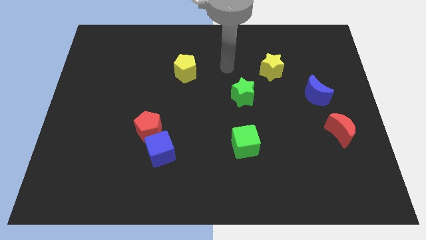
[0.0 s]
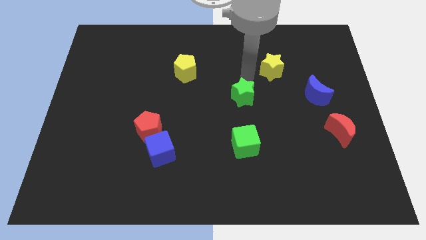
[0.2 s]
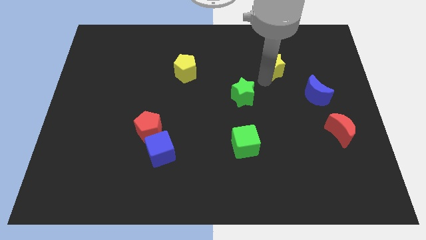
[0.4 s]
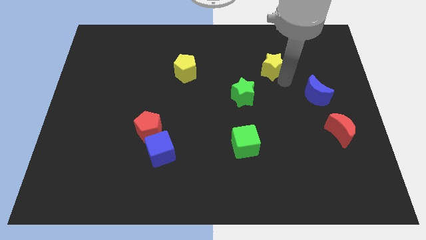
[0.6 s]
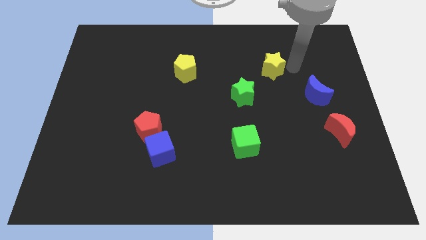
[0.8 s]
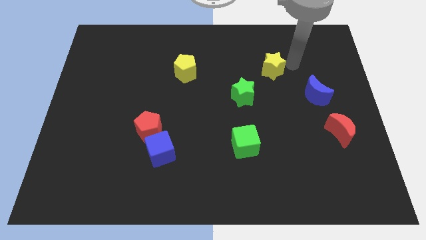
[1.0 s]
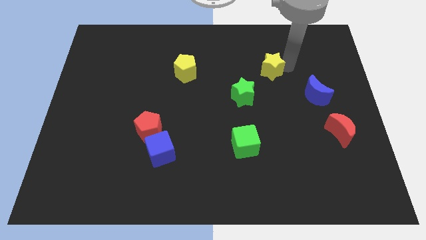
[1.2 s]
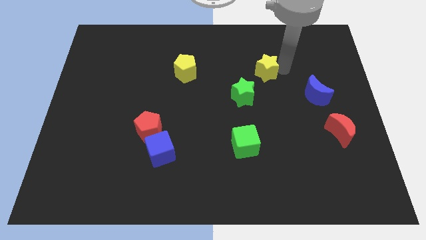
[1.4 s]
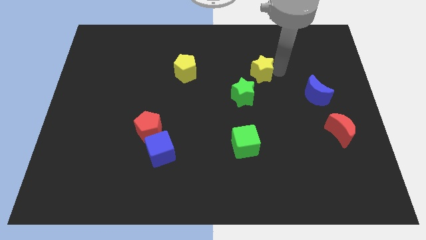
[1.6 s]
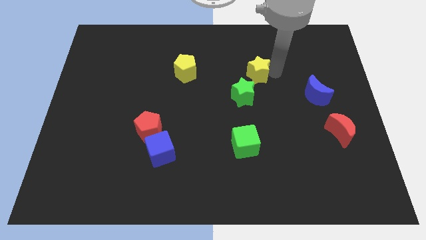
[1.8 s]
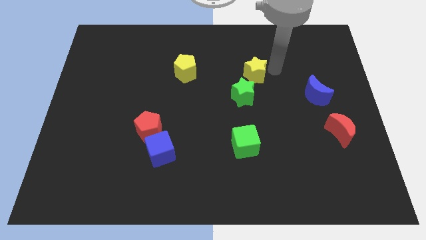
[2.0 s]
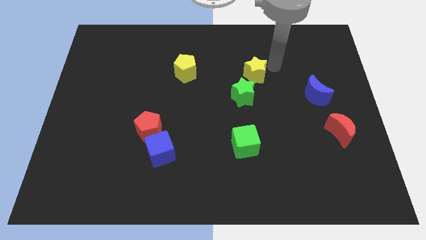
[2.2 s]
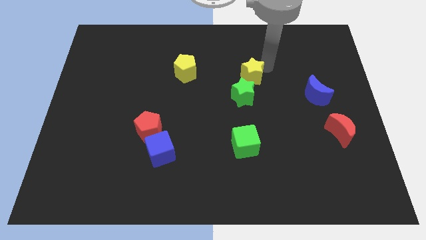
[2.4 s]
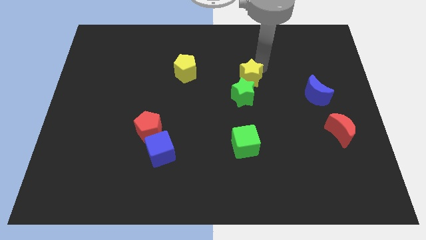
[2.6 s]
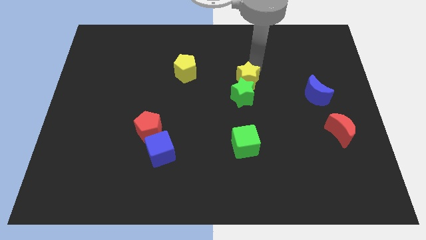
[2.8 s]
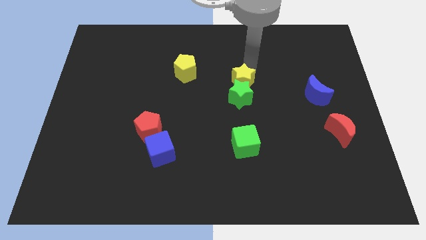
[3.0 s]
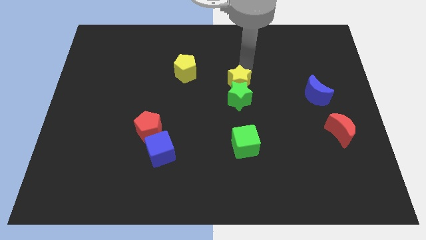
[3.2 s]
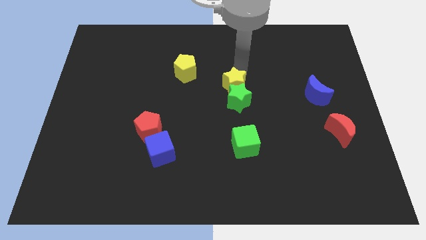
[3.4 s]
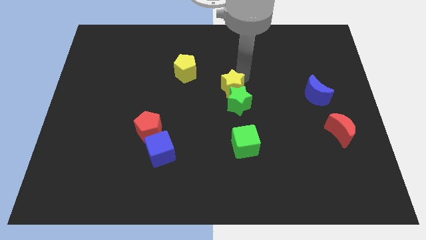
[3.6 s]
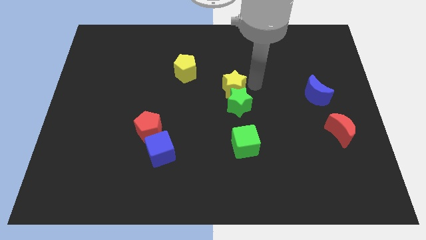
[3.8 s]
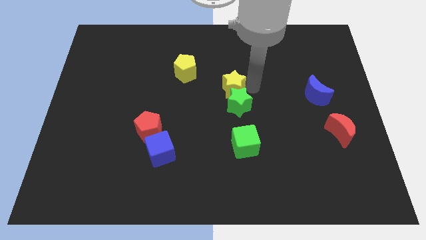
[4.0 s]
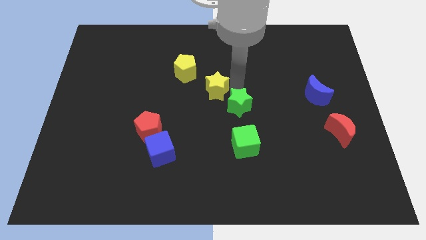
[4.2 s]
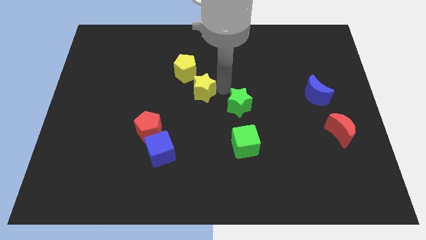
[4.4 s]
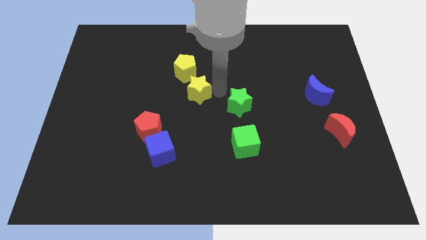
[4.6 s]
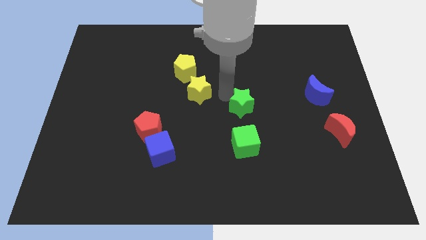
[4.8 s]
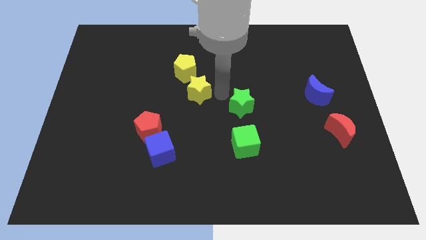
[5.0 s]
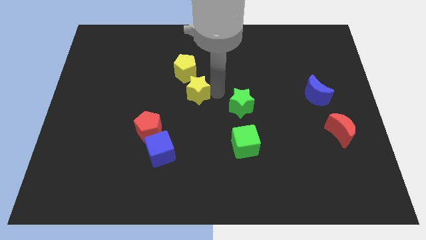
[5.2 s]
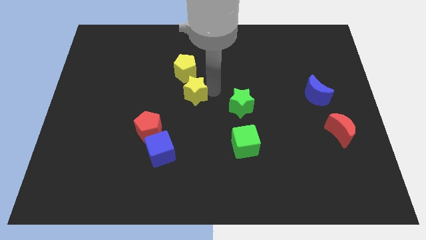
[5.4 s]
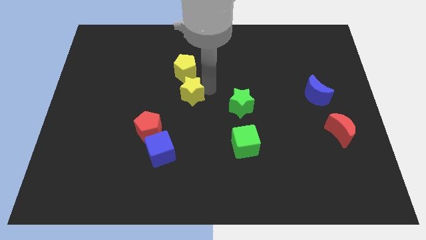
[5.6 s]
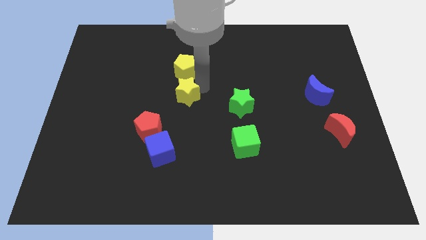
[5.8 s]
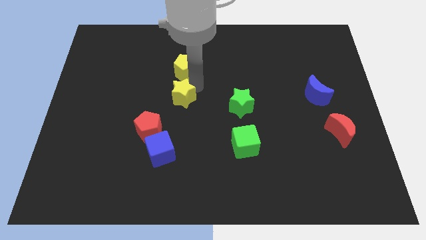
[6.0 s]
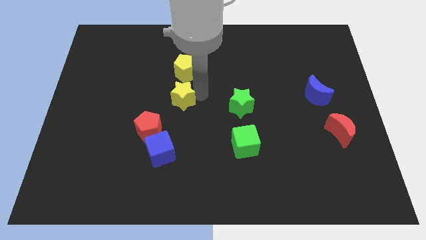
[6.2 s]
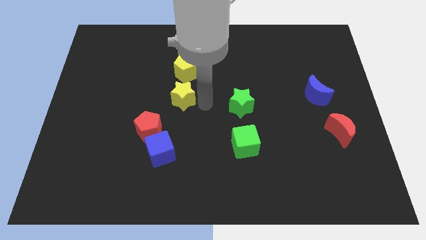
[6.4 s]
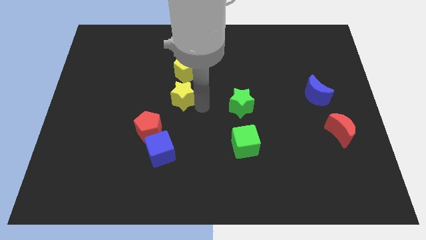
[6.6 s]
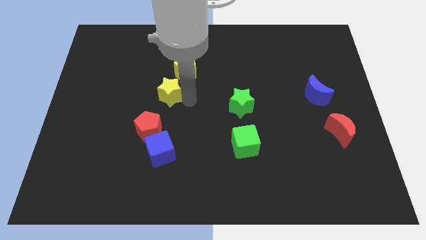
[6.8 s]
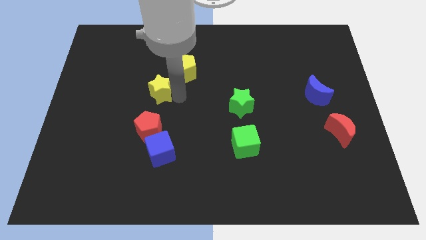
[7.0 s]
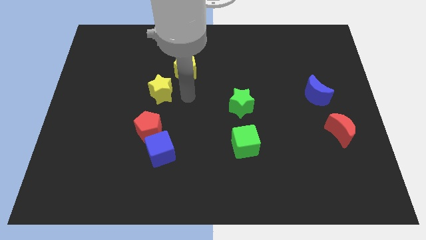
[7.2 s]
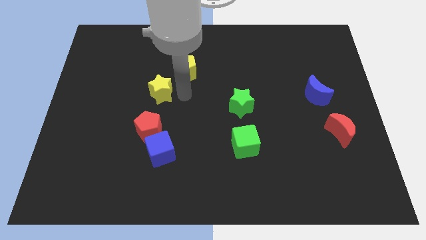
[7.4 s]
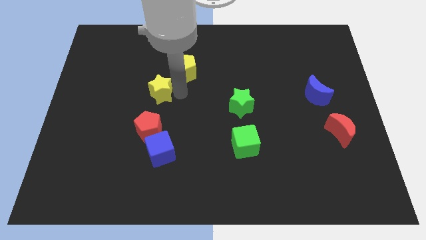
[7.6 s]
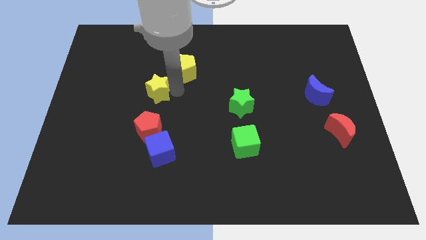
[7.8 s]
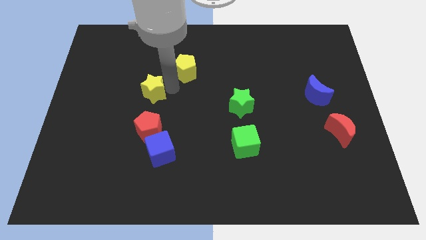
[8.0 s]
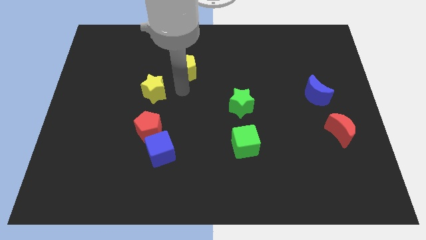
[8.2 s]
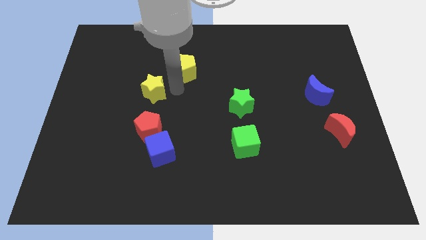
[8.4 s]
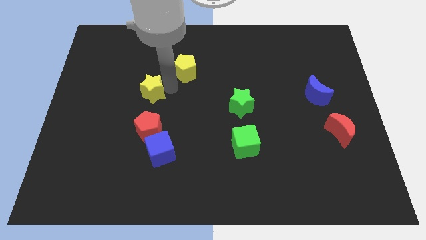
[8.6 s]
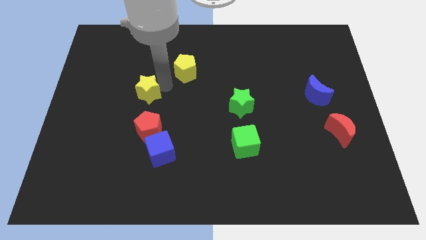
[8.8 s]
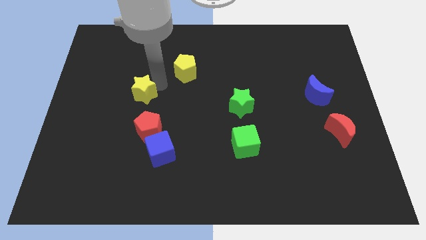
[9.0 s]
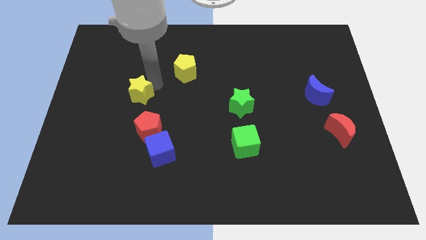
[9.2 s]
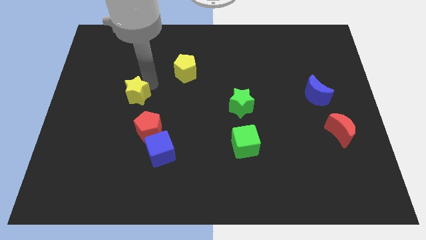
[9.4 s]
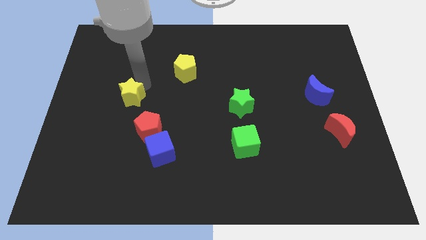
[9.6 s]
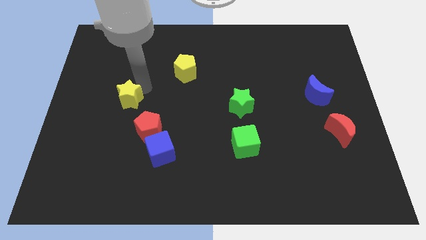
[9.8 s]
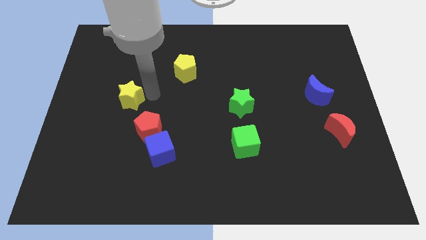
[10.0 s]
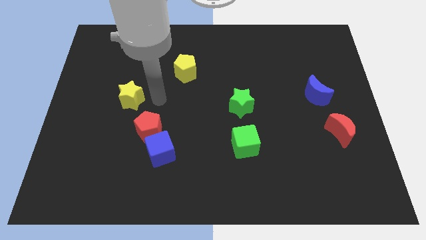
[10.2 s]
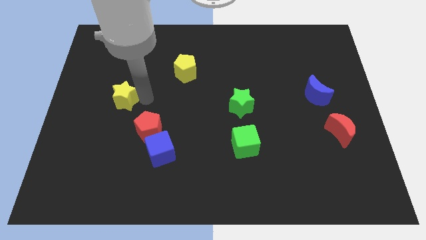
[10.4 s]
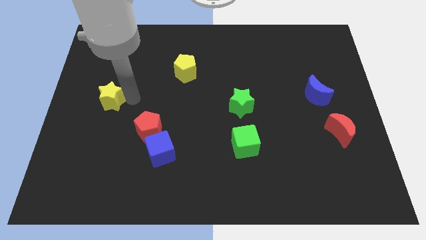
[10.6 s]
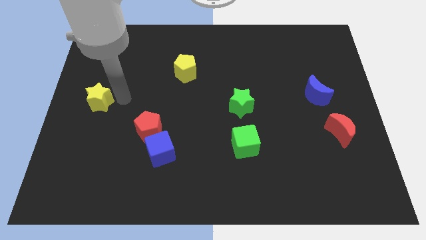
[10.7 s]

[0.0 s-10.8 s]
move the yellow star to the left side

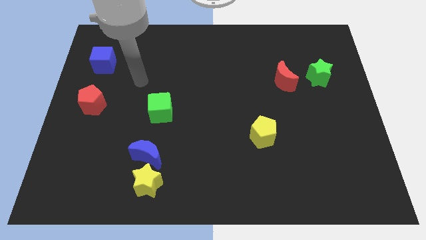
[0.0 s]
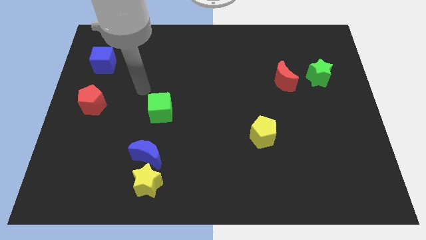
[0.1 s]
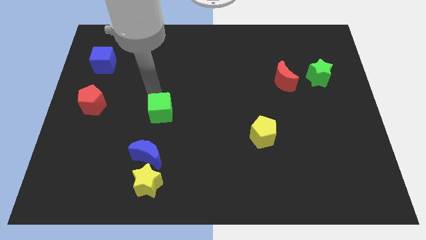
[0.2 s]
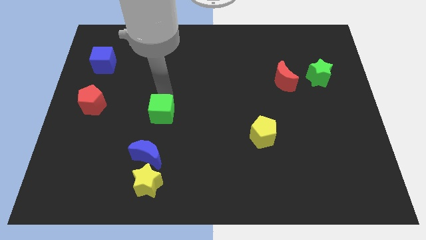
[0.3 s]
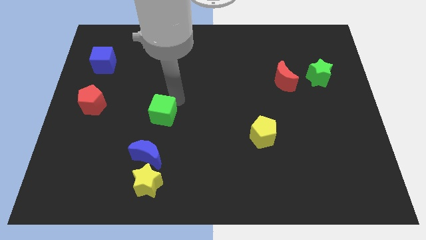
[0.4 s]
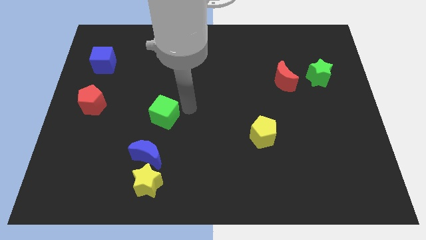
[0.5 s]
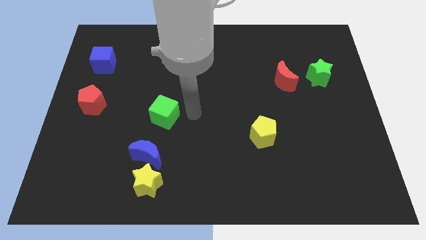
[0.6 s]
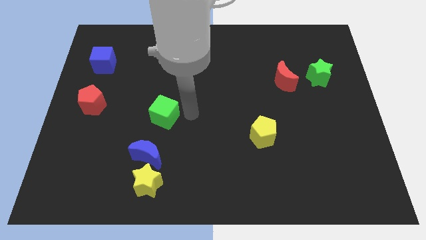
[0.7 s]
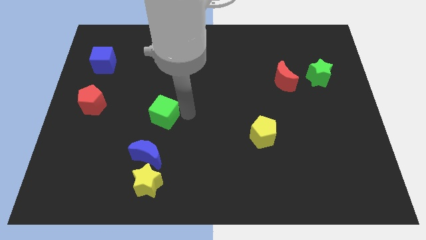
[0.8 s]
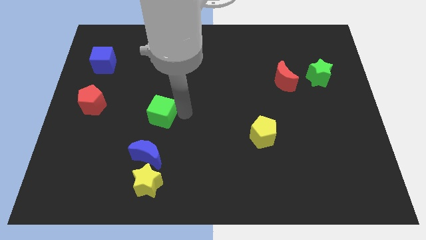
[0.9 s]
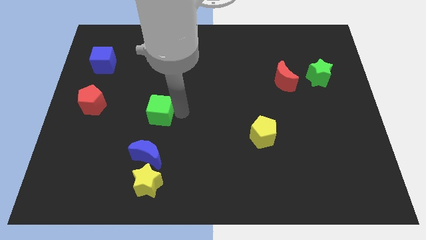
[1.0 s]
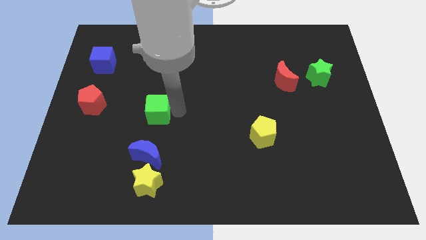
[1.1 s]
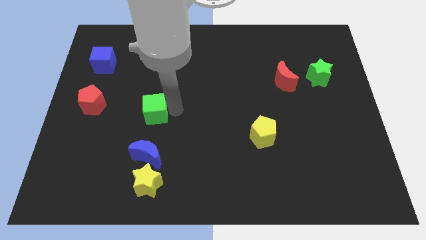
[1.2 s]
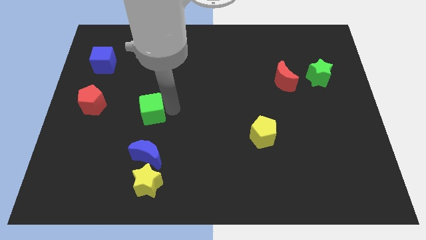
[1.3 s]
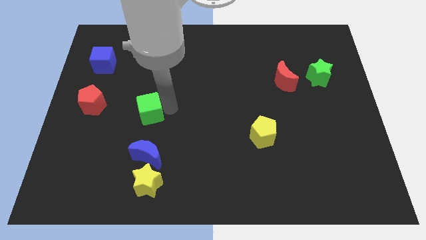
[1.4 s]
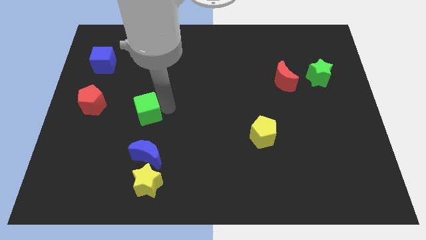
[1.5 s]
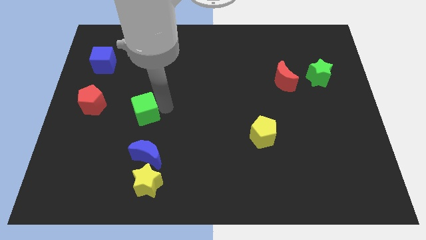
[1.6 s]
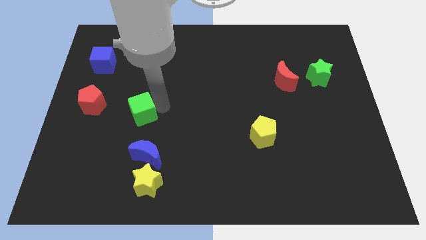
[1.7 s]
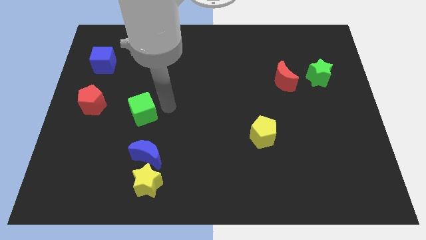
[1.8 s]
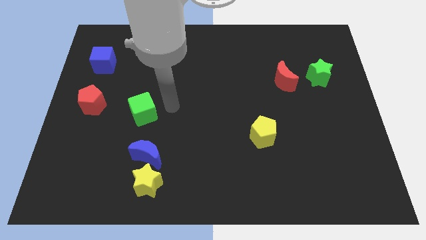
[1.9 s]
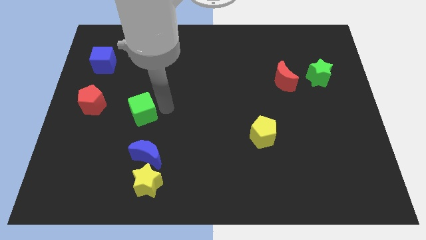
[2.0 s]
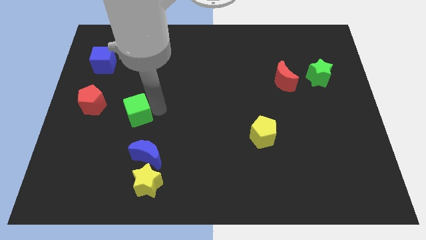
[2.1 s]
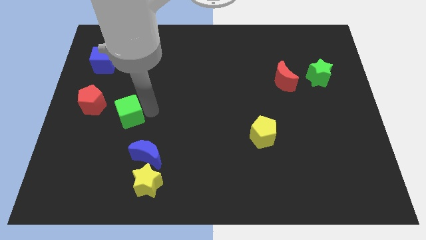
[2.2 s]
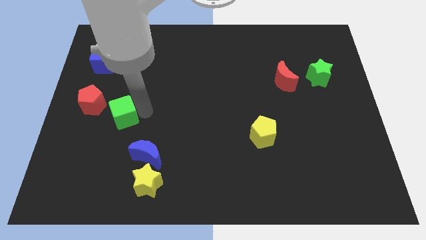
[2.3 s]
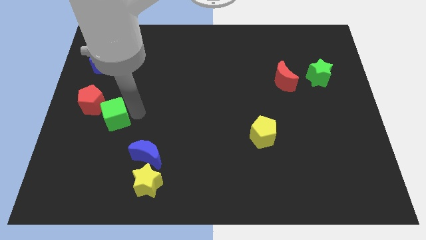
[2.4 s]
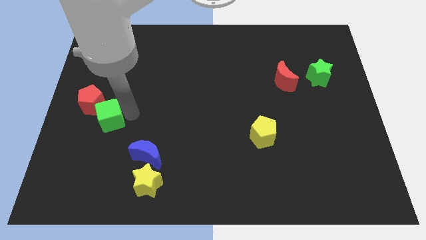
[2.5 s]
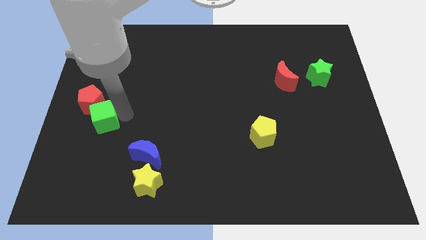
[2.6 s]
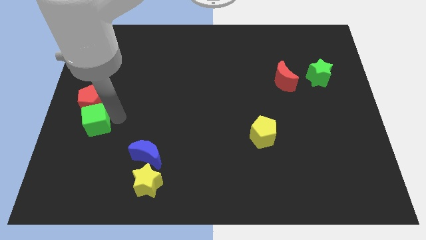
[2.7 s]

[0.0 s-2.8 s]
move the green cube to the center left
